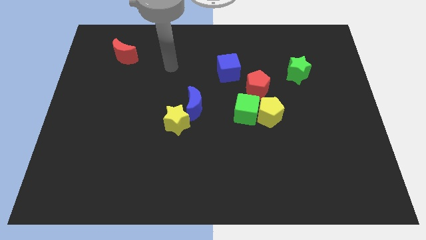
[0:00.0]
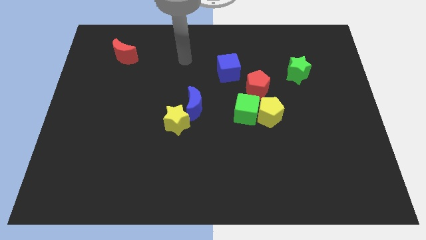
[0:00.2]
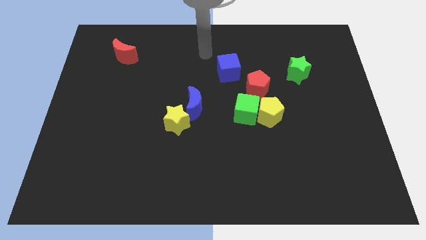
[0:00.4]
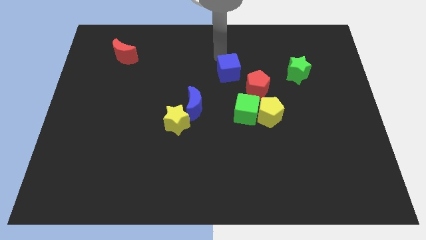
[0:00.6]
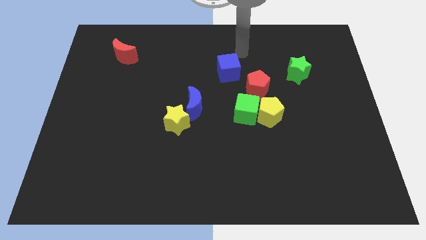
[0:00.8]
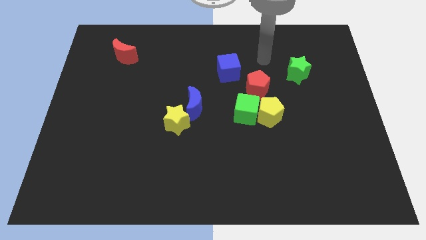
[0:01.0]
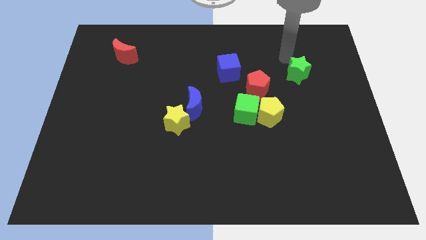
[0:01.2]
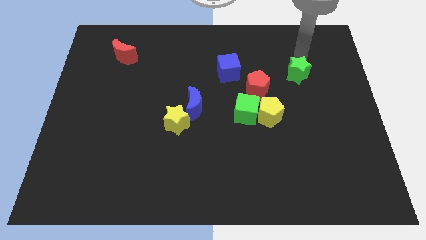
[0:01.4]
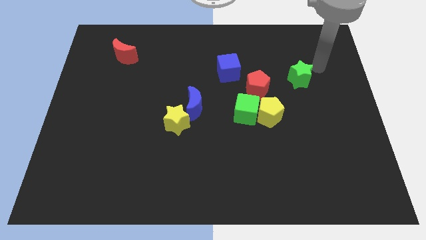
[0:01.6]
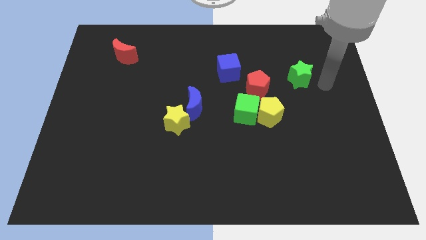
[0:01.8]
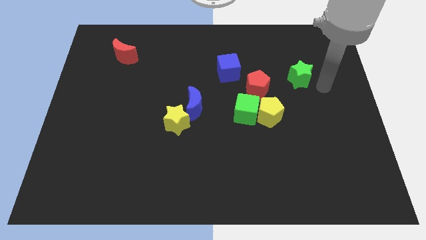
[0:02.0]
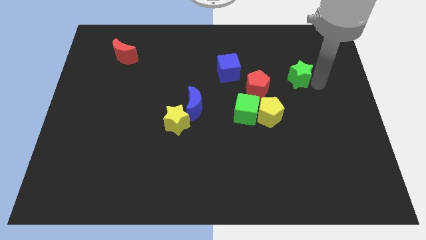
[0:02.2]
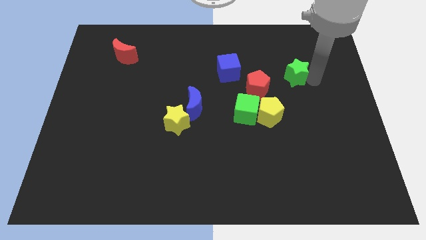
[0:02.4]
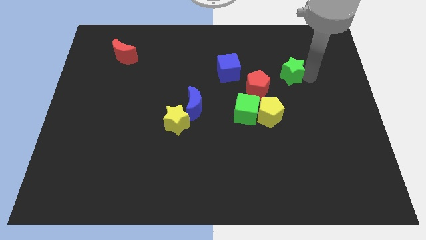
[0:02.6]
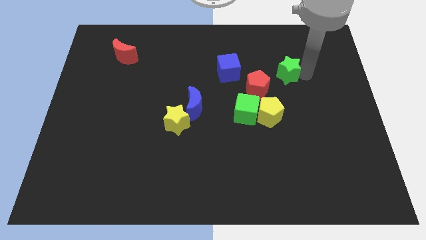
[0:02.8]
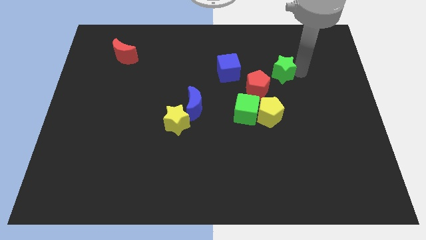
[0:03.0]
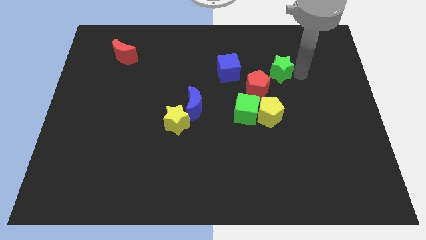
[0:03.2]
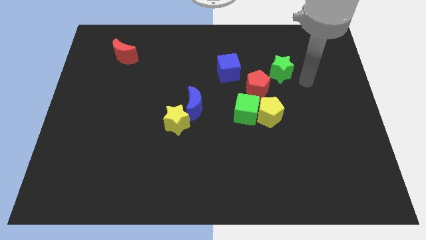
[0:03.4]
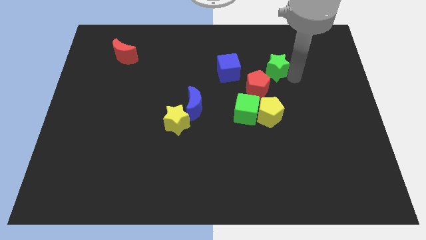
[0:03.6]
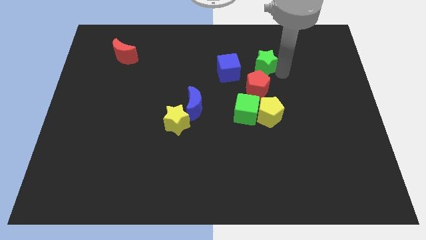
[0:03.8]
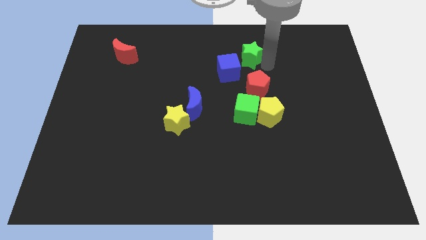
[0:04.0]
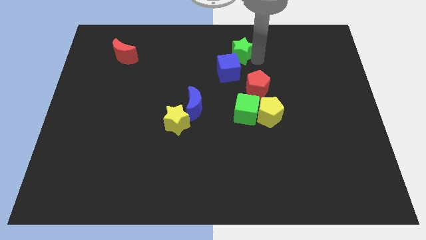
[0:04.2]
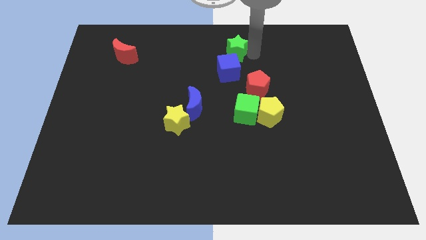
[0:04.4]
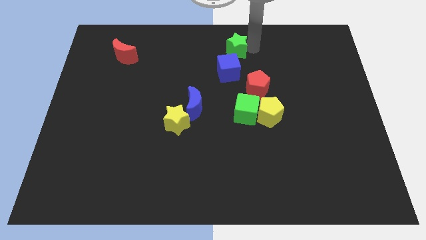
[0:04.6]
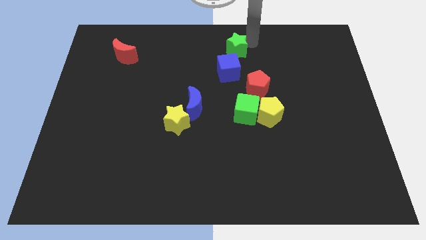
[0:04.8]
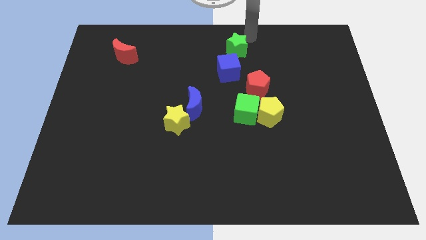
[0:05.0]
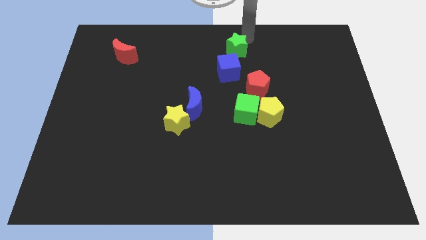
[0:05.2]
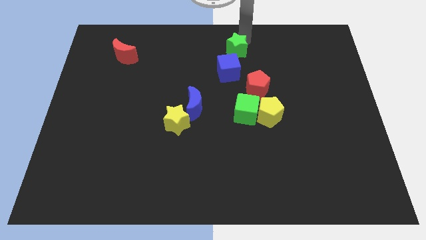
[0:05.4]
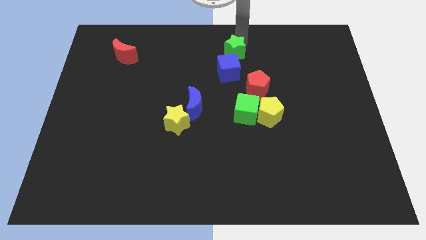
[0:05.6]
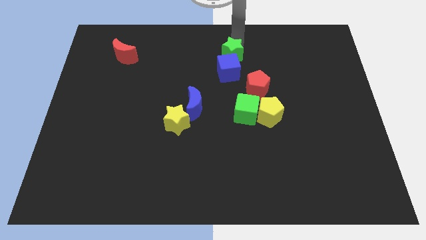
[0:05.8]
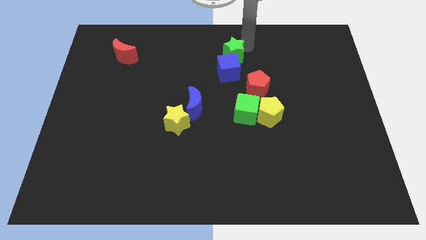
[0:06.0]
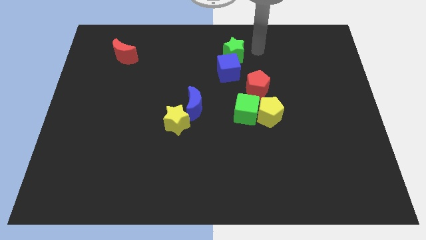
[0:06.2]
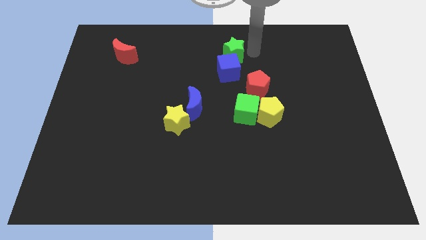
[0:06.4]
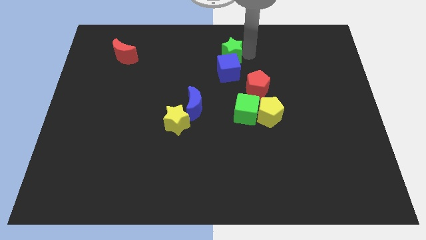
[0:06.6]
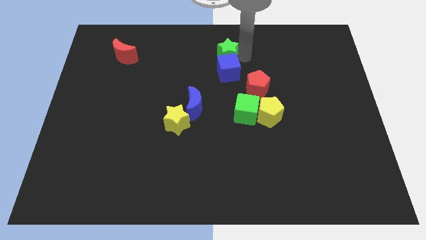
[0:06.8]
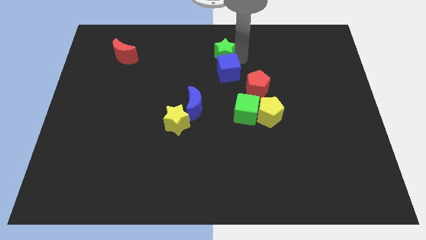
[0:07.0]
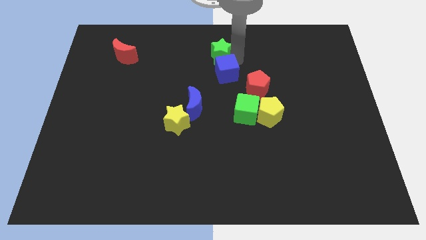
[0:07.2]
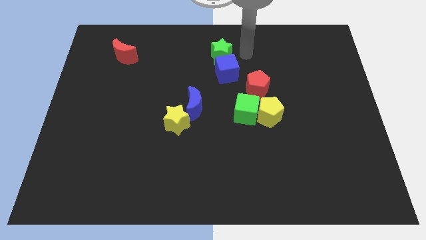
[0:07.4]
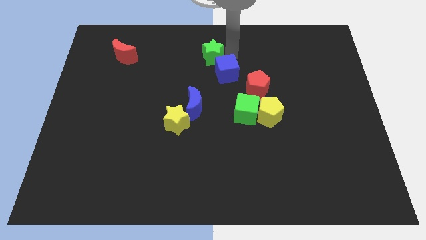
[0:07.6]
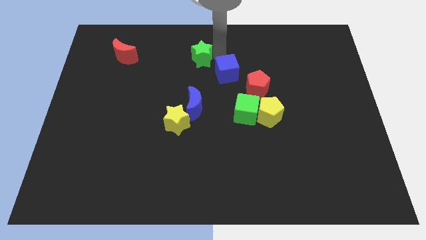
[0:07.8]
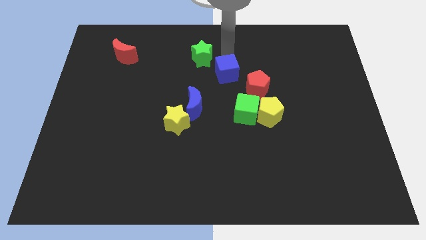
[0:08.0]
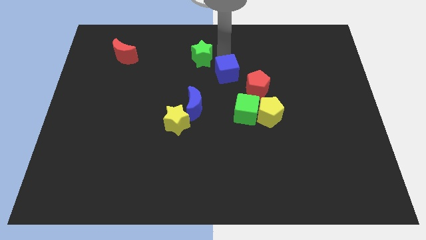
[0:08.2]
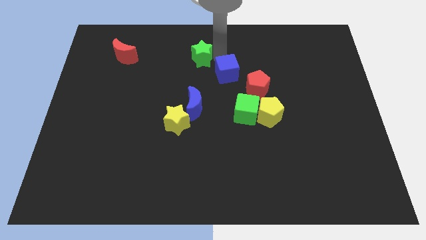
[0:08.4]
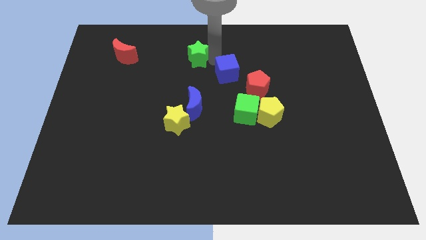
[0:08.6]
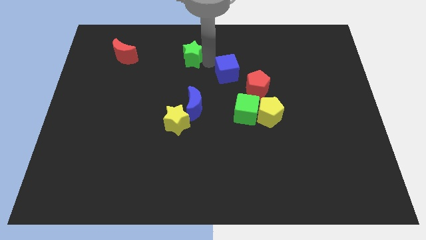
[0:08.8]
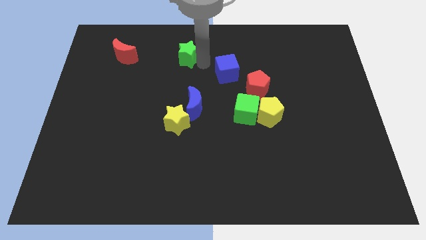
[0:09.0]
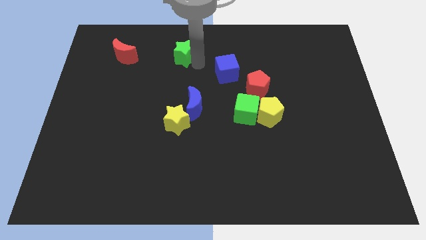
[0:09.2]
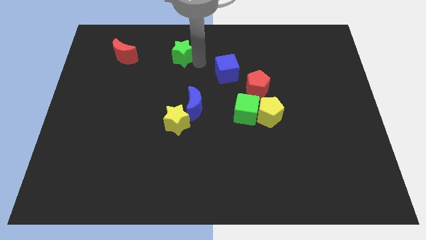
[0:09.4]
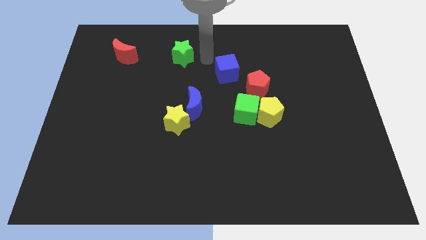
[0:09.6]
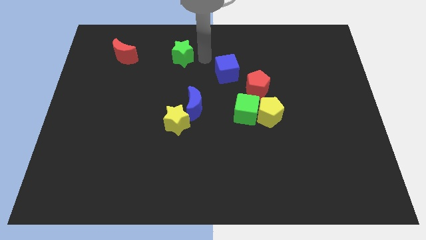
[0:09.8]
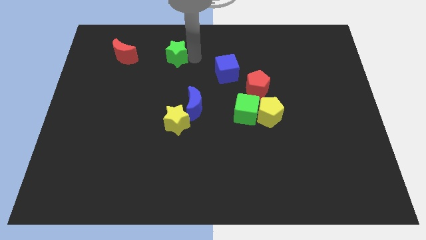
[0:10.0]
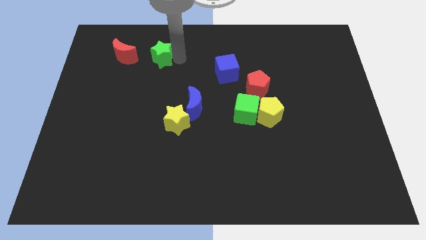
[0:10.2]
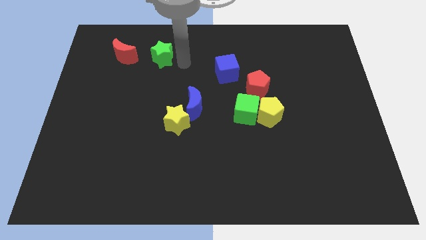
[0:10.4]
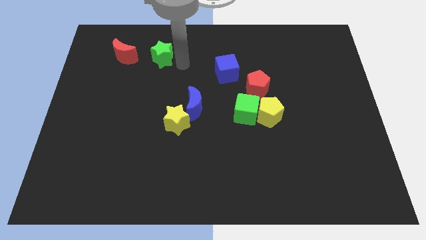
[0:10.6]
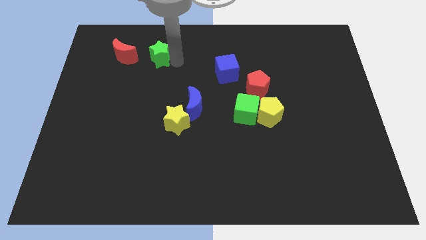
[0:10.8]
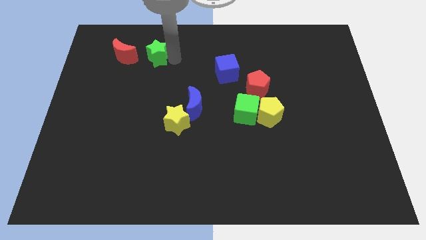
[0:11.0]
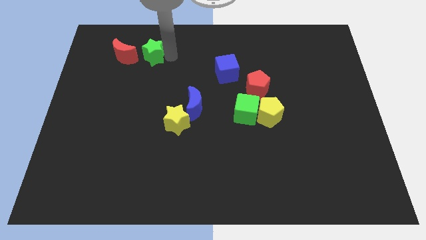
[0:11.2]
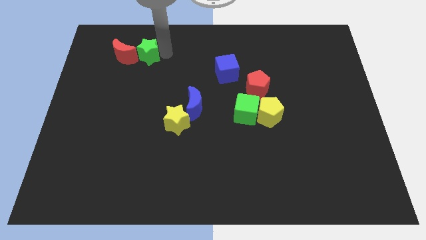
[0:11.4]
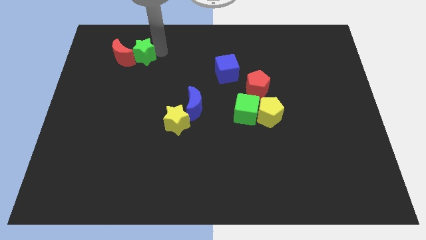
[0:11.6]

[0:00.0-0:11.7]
move the green star close to the red moon

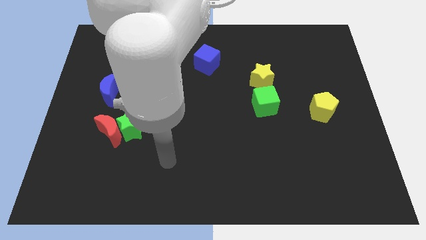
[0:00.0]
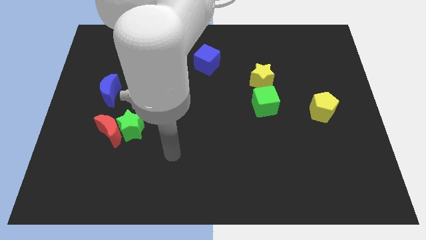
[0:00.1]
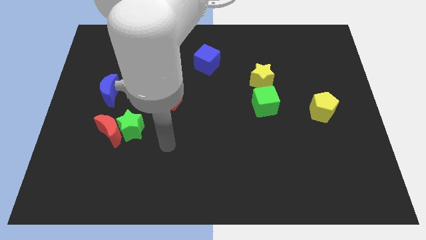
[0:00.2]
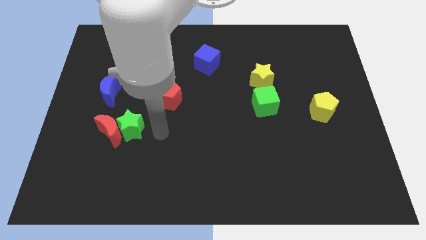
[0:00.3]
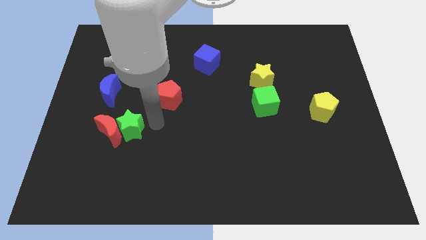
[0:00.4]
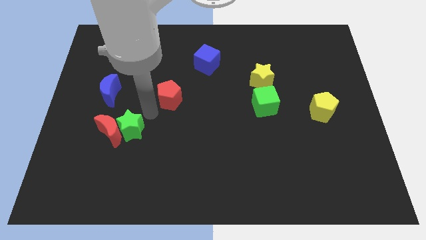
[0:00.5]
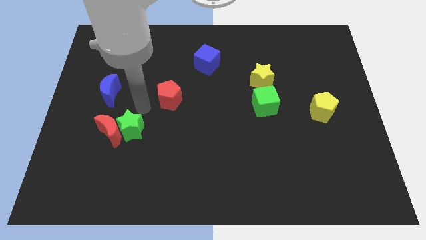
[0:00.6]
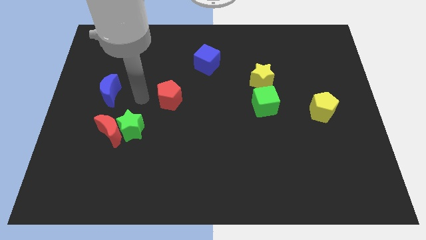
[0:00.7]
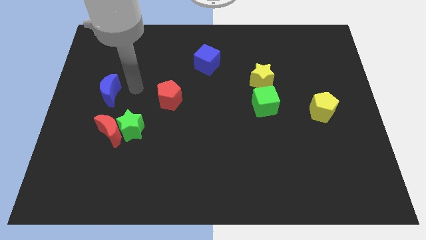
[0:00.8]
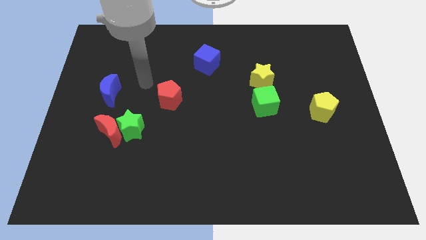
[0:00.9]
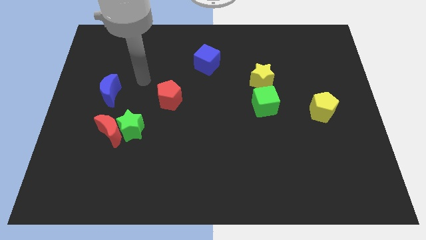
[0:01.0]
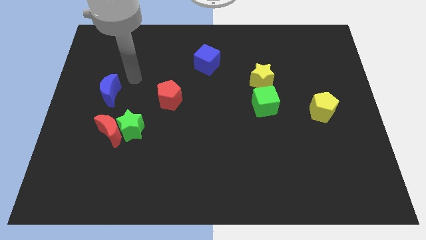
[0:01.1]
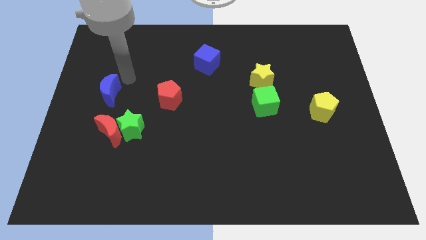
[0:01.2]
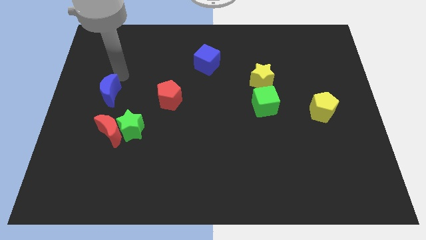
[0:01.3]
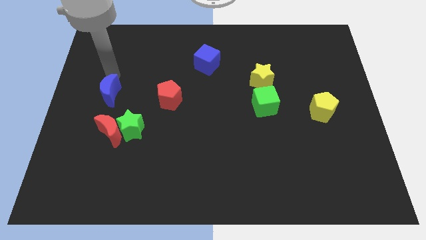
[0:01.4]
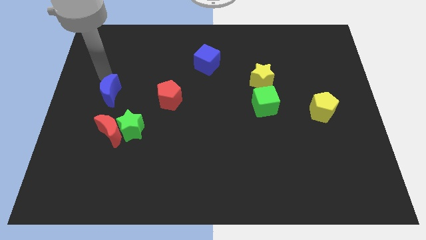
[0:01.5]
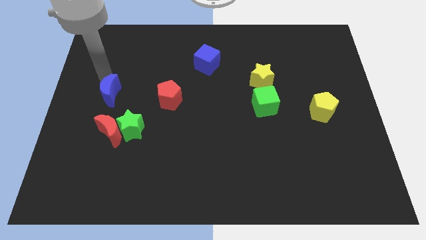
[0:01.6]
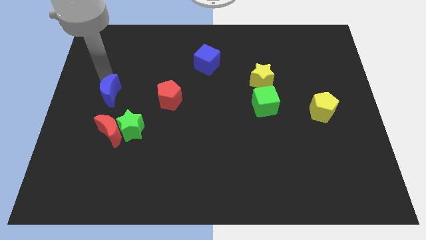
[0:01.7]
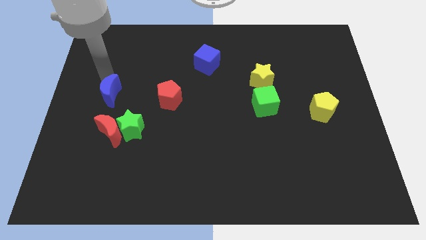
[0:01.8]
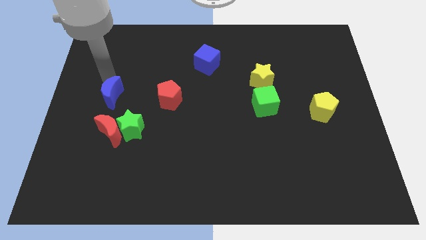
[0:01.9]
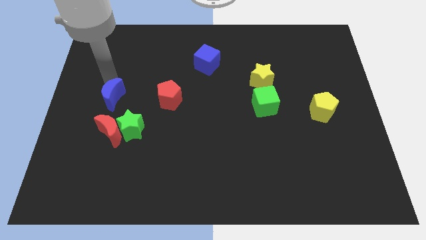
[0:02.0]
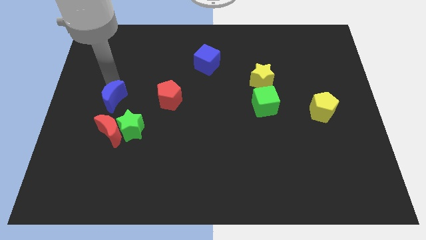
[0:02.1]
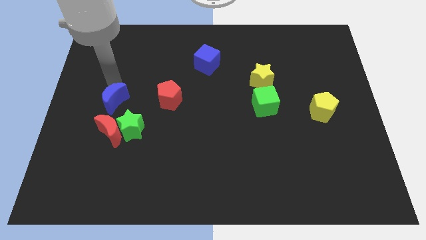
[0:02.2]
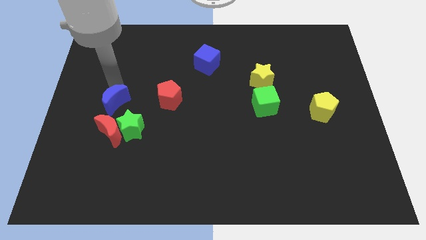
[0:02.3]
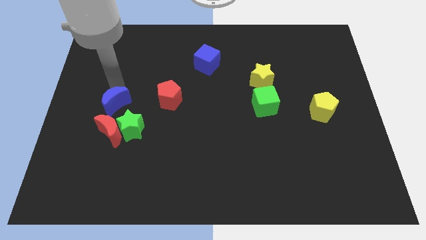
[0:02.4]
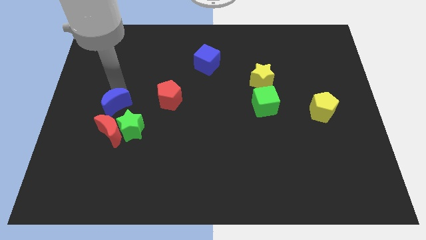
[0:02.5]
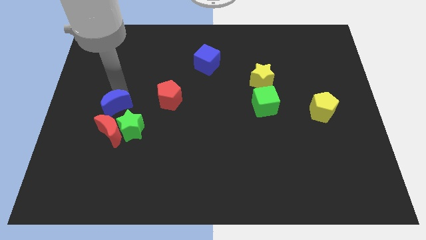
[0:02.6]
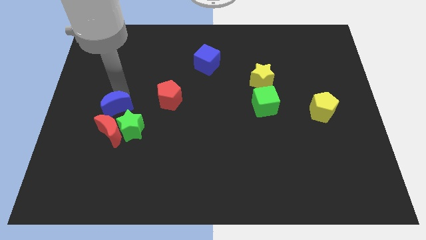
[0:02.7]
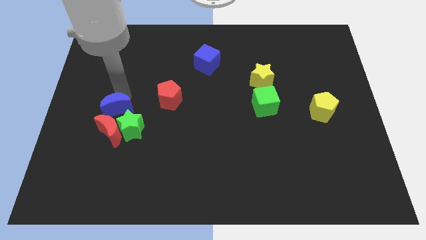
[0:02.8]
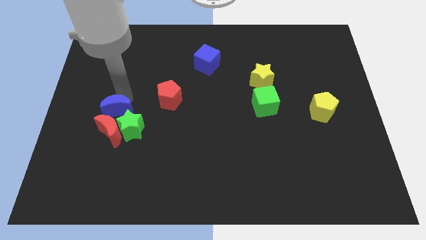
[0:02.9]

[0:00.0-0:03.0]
put the blue moon towards the red moon
